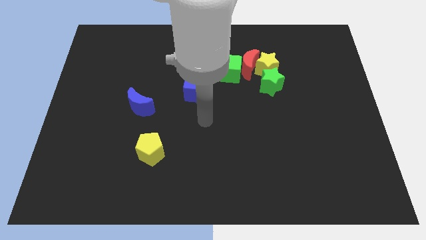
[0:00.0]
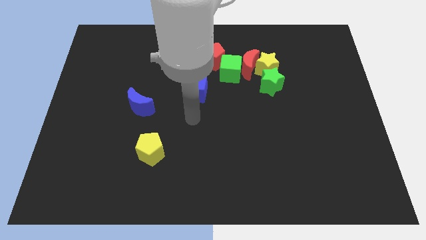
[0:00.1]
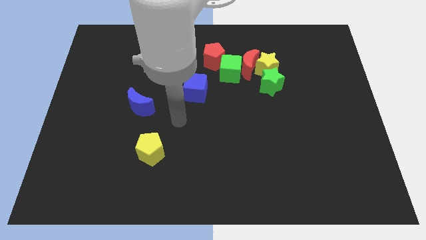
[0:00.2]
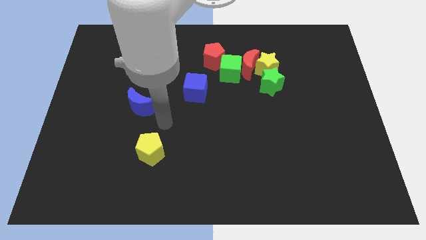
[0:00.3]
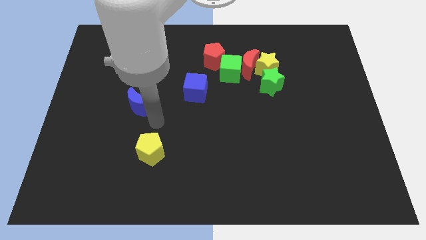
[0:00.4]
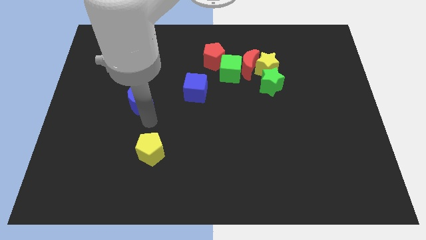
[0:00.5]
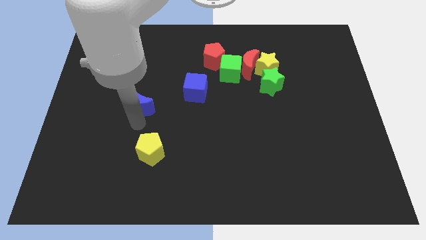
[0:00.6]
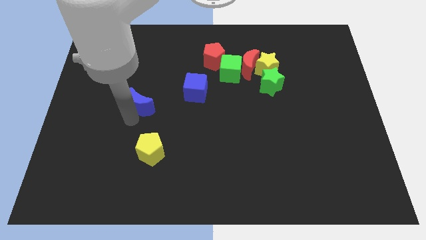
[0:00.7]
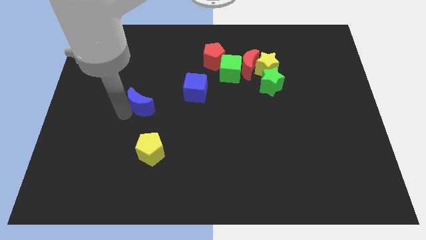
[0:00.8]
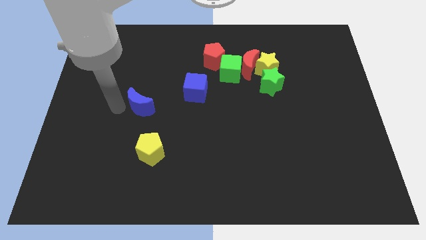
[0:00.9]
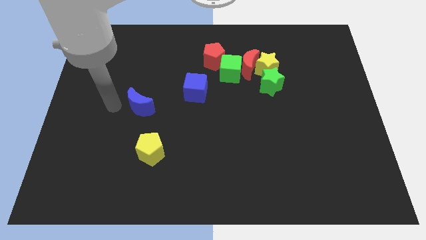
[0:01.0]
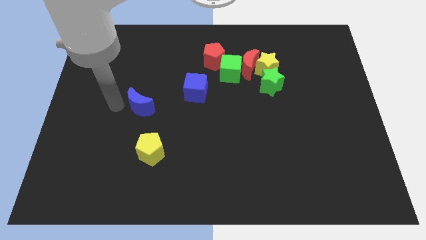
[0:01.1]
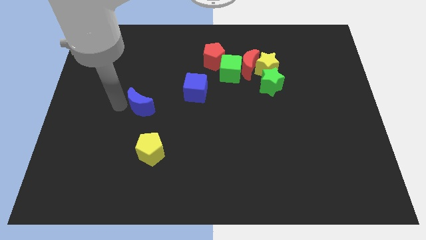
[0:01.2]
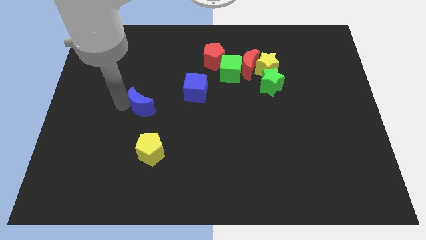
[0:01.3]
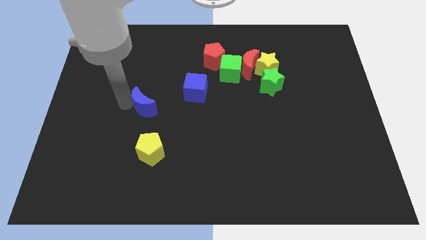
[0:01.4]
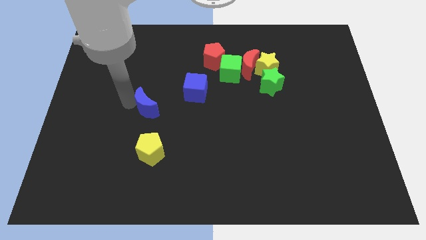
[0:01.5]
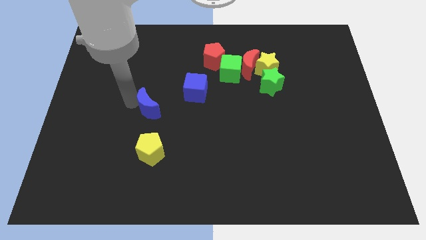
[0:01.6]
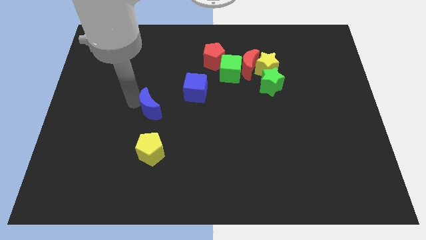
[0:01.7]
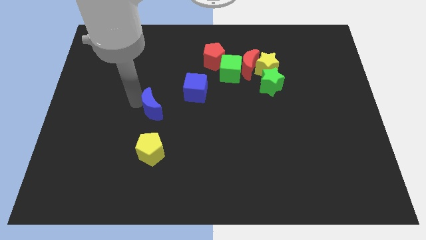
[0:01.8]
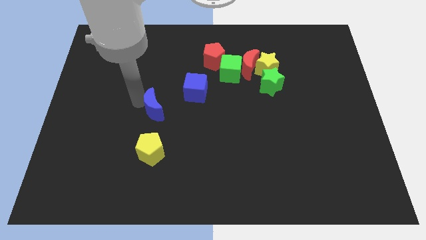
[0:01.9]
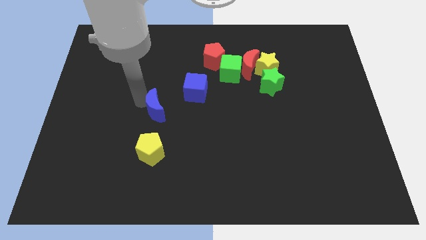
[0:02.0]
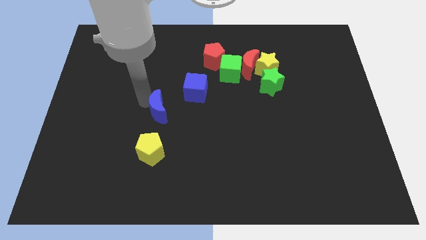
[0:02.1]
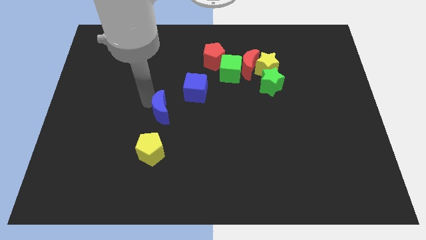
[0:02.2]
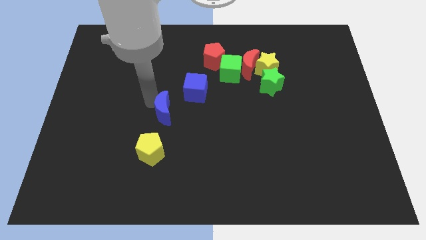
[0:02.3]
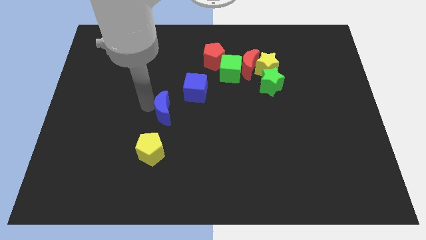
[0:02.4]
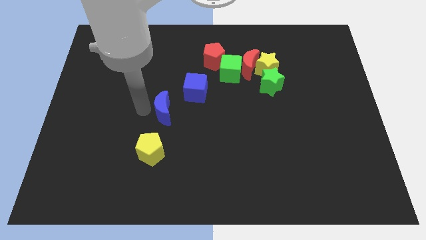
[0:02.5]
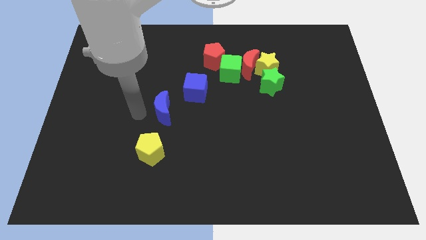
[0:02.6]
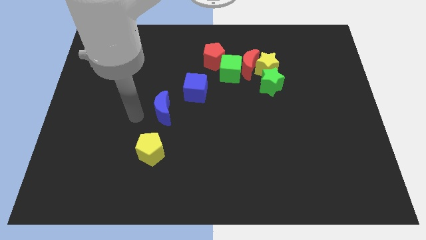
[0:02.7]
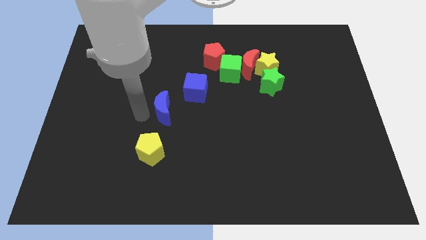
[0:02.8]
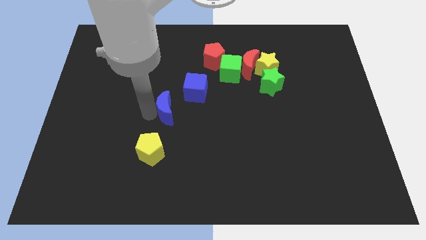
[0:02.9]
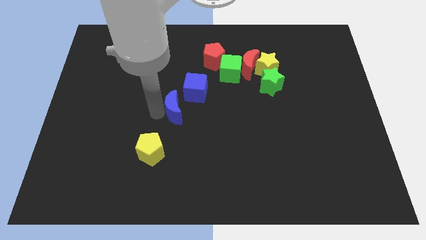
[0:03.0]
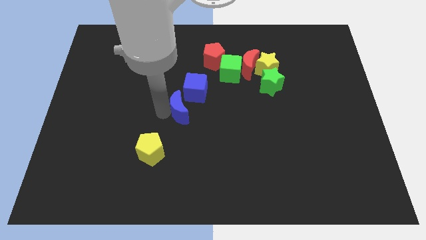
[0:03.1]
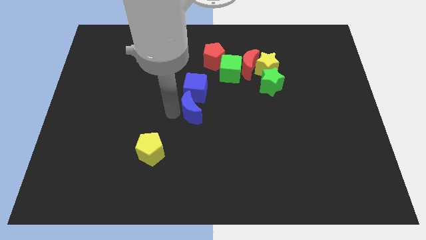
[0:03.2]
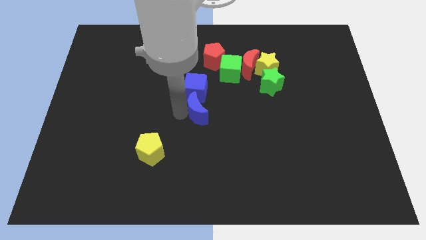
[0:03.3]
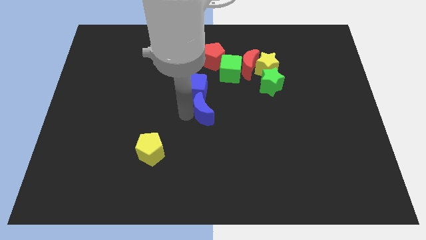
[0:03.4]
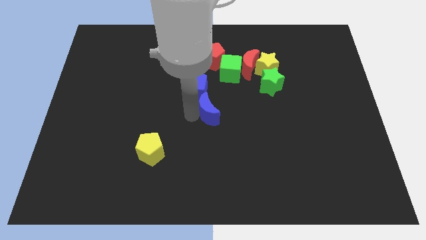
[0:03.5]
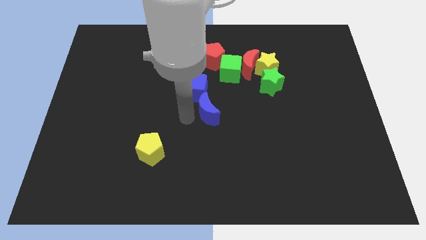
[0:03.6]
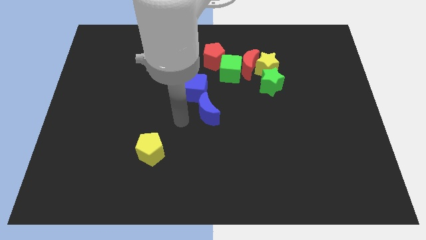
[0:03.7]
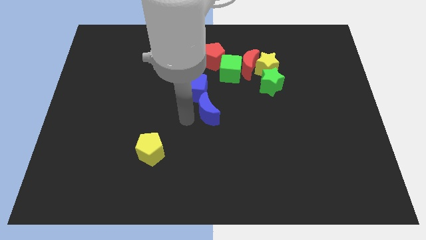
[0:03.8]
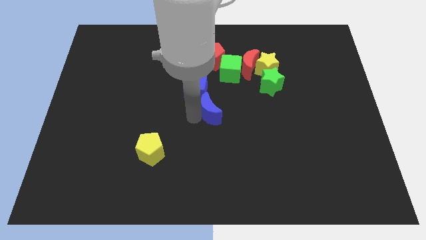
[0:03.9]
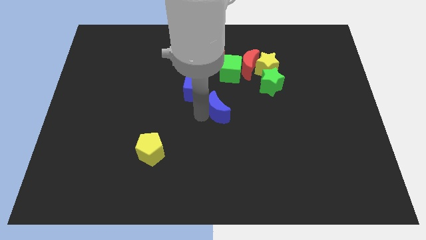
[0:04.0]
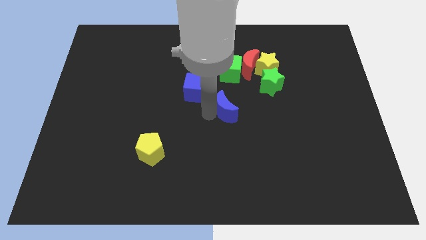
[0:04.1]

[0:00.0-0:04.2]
slide the blue moon right

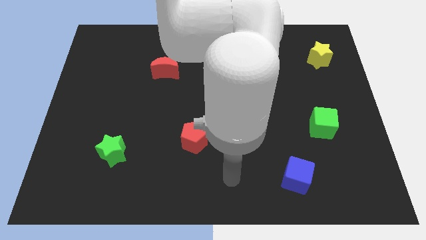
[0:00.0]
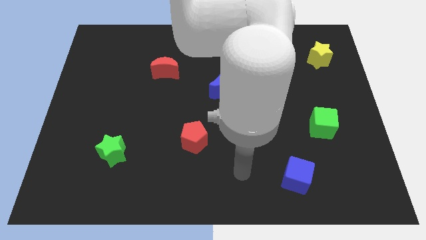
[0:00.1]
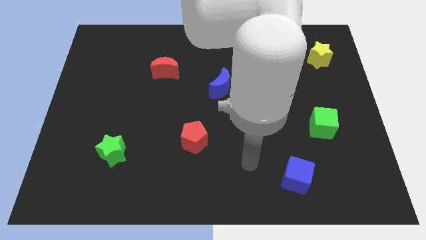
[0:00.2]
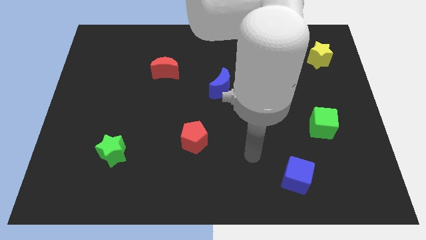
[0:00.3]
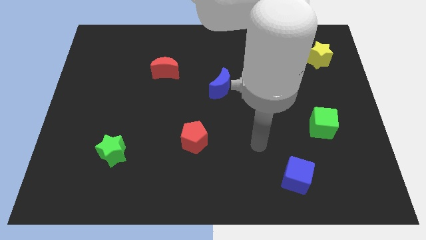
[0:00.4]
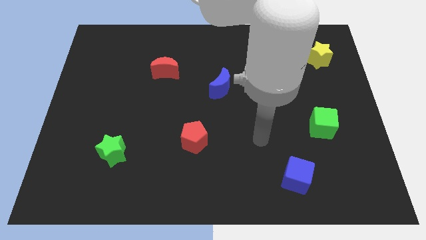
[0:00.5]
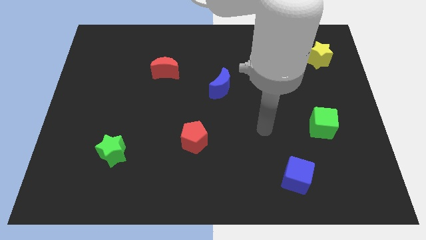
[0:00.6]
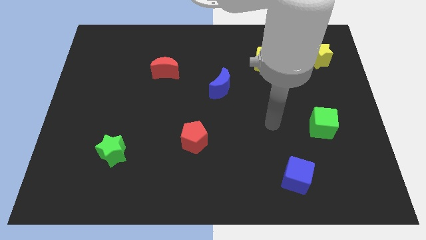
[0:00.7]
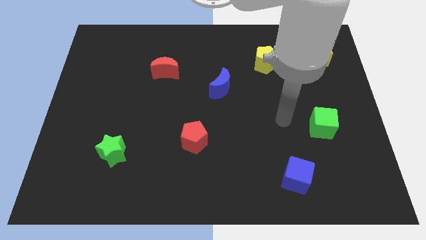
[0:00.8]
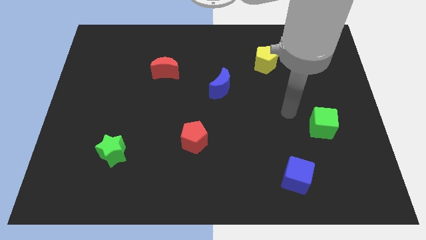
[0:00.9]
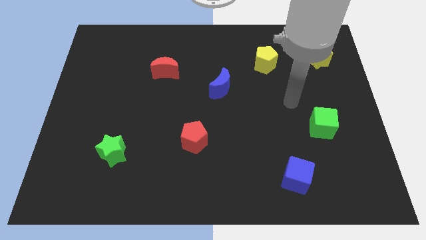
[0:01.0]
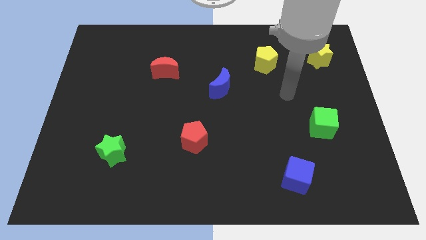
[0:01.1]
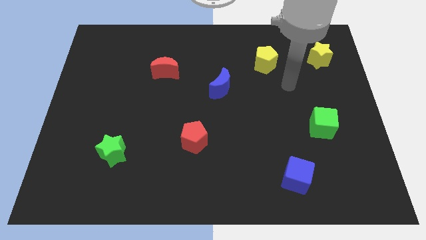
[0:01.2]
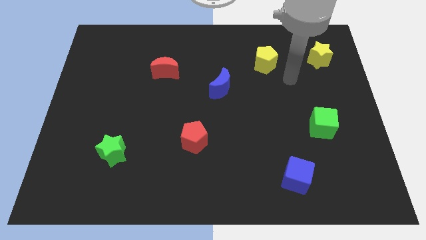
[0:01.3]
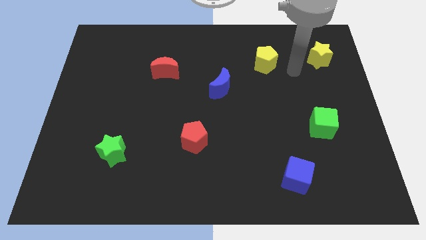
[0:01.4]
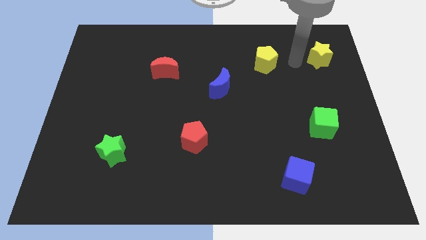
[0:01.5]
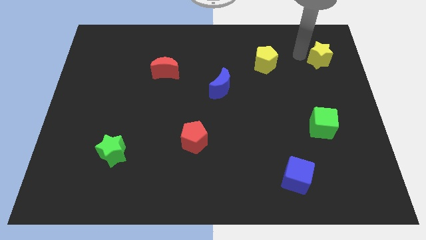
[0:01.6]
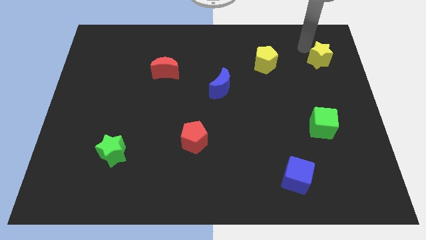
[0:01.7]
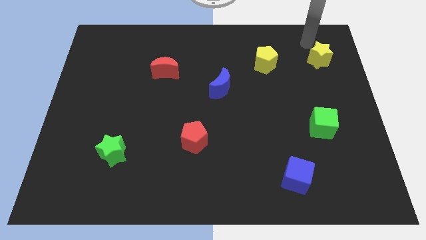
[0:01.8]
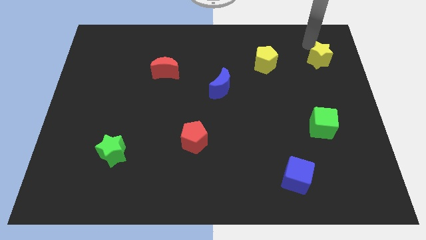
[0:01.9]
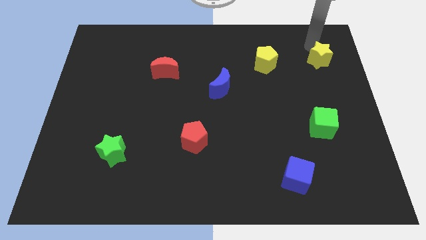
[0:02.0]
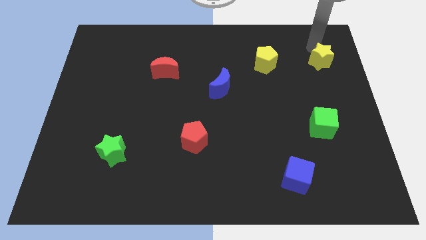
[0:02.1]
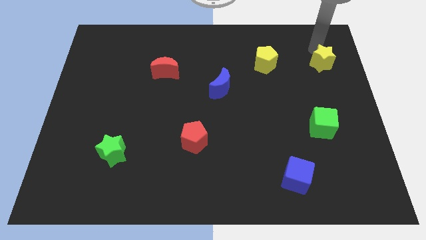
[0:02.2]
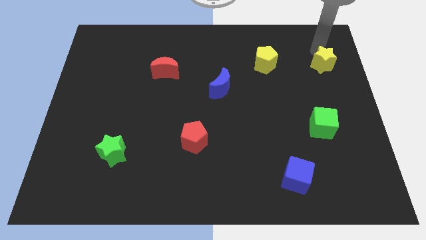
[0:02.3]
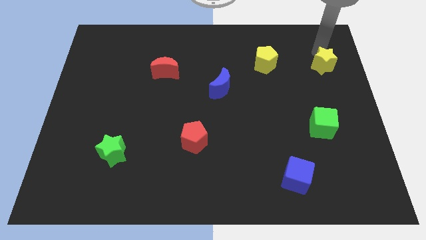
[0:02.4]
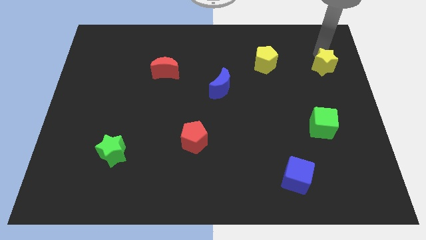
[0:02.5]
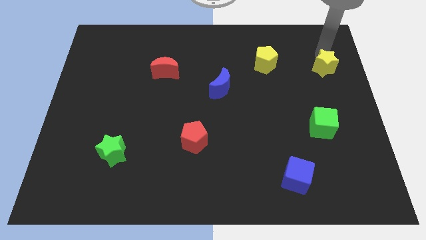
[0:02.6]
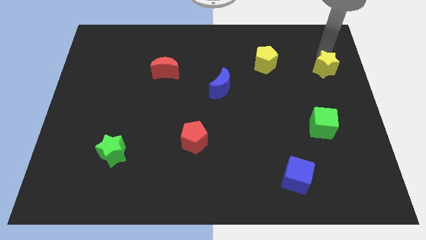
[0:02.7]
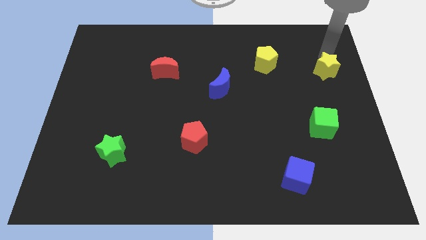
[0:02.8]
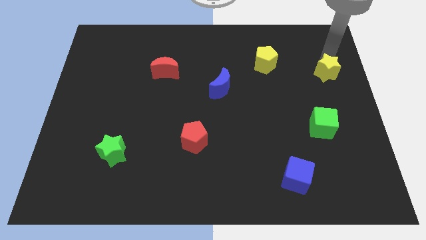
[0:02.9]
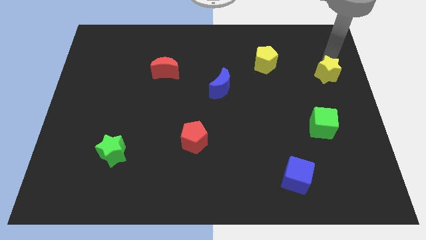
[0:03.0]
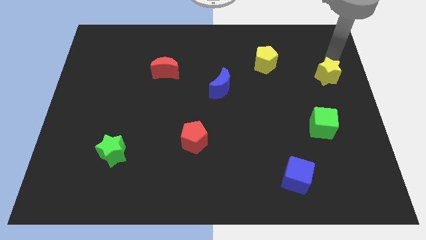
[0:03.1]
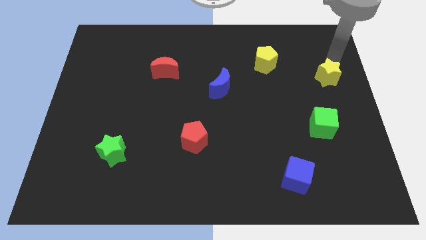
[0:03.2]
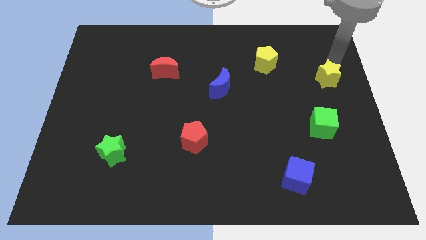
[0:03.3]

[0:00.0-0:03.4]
slightly slide the yellow star downwards

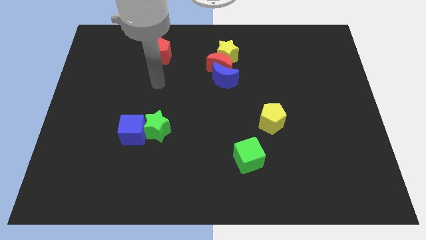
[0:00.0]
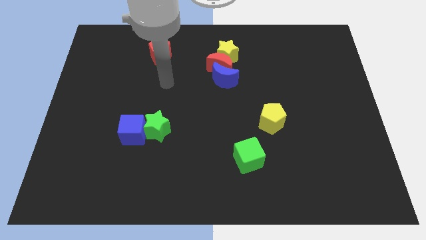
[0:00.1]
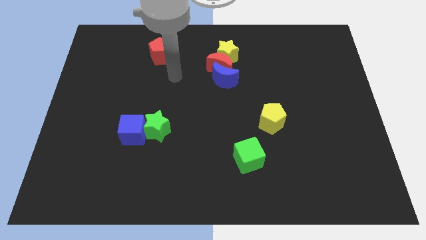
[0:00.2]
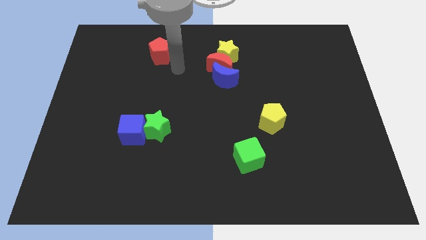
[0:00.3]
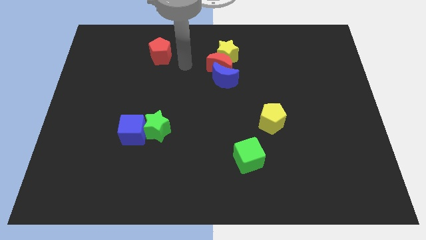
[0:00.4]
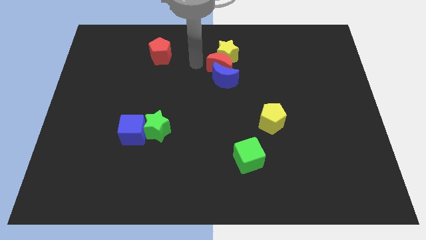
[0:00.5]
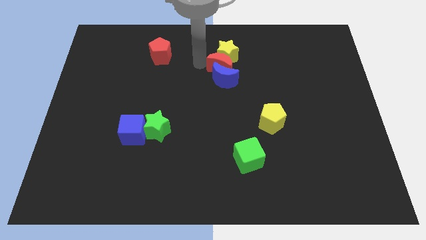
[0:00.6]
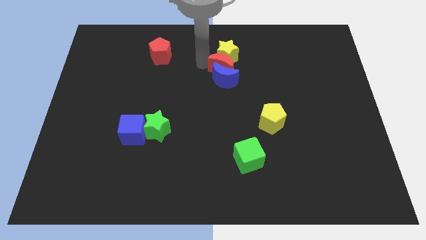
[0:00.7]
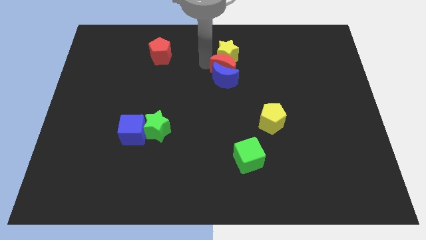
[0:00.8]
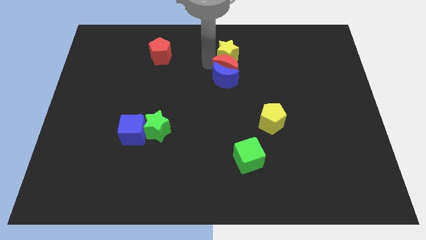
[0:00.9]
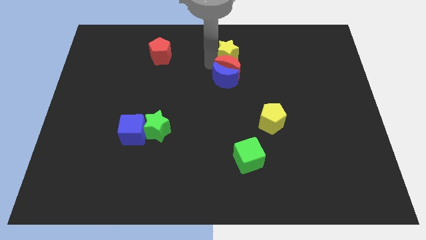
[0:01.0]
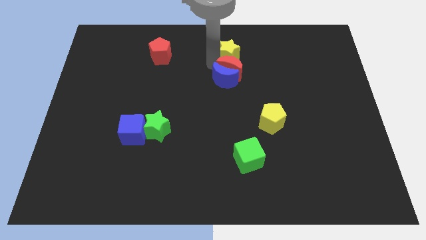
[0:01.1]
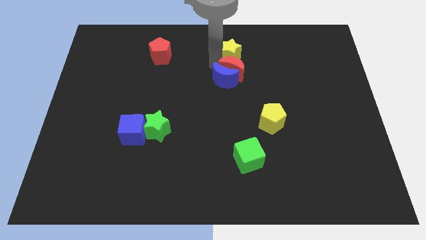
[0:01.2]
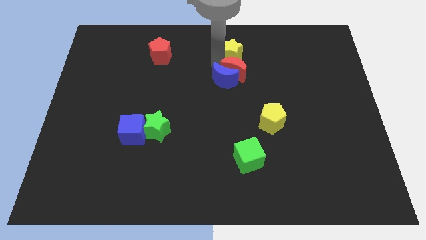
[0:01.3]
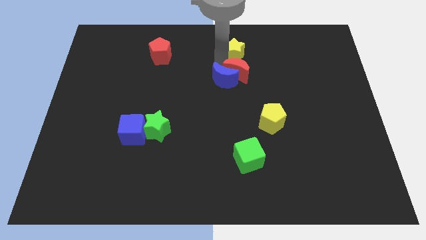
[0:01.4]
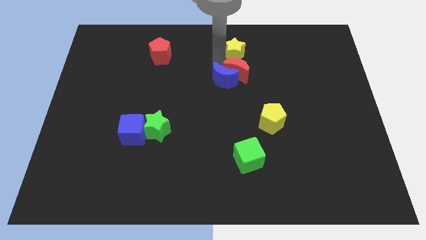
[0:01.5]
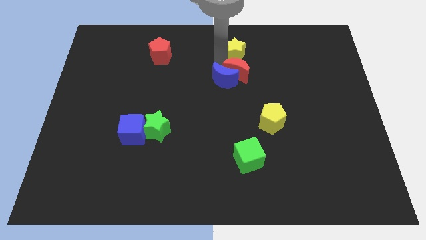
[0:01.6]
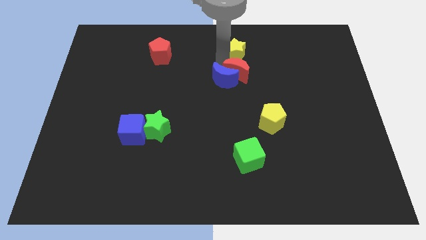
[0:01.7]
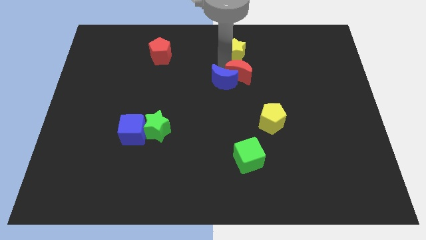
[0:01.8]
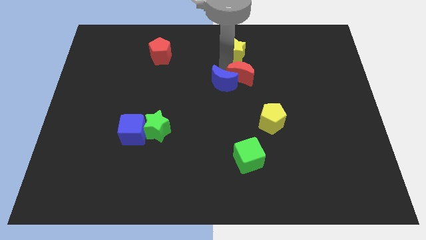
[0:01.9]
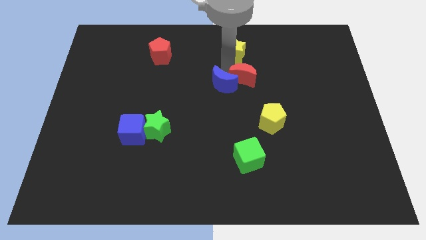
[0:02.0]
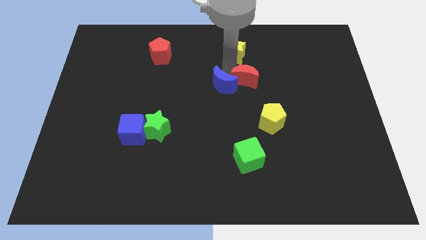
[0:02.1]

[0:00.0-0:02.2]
slide the red moon a little bit downwards and then right
